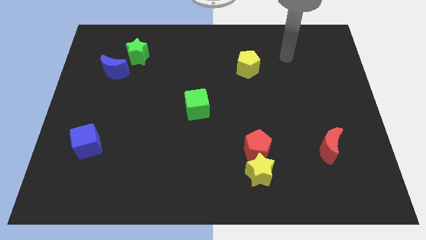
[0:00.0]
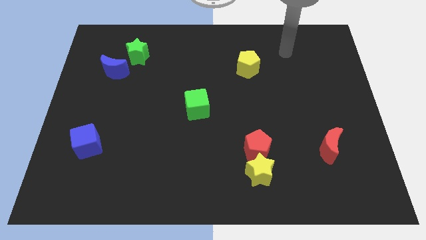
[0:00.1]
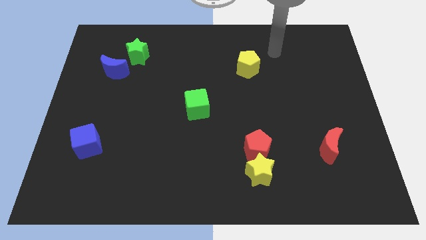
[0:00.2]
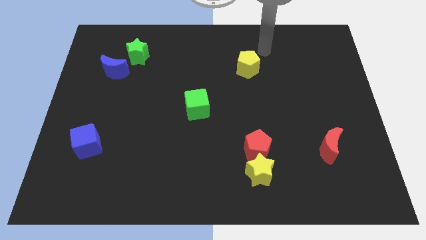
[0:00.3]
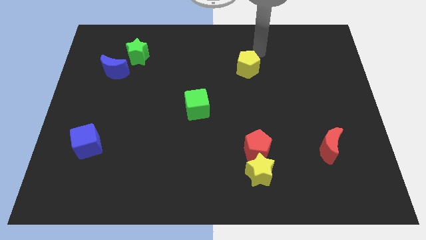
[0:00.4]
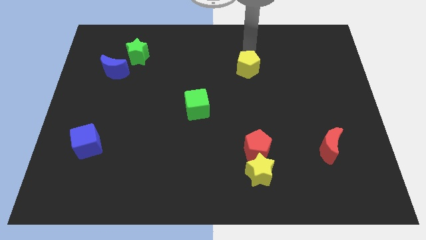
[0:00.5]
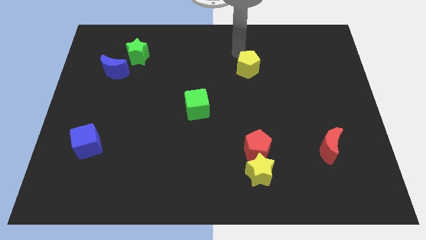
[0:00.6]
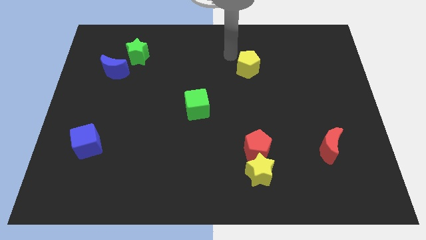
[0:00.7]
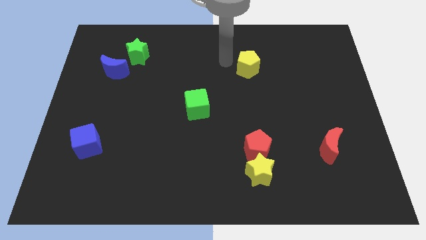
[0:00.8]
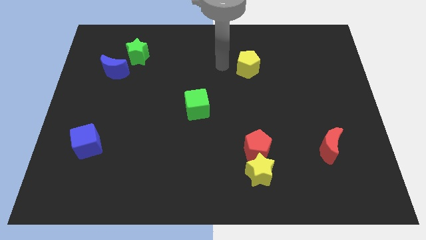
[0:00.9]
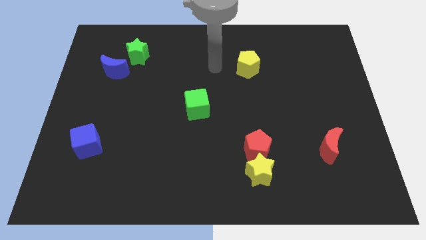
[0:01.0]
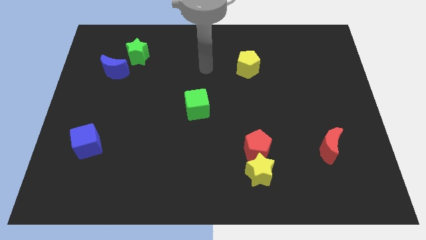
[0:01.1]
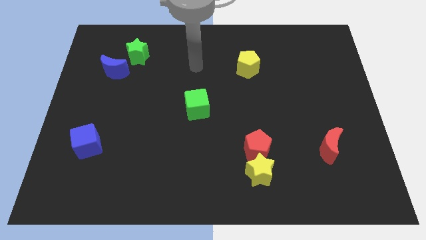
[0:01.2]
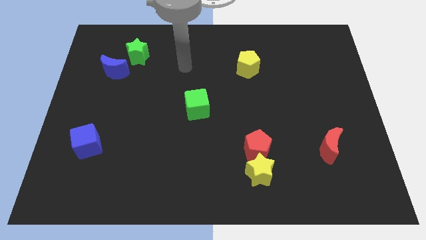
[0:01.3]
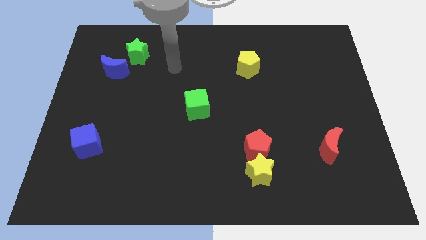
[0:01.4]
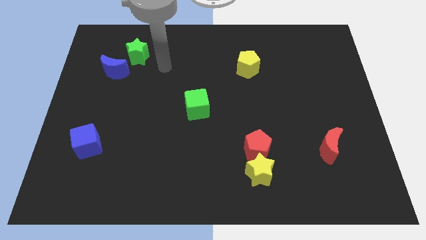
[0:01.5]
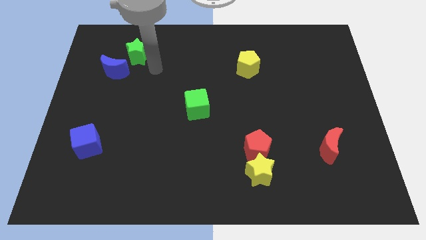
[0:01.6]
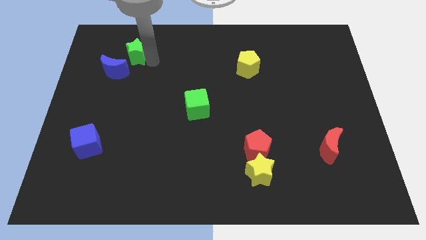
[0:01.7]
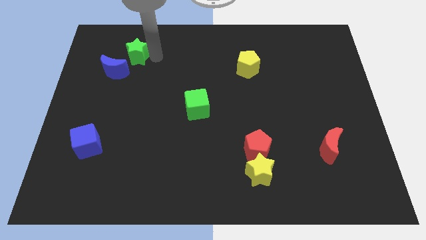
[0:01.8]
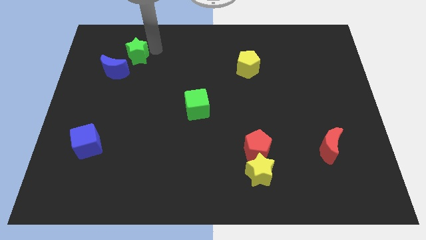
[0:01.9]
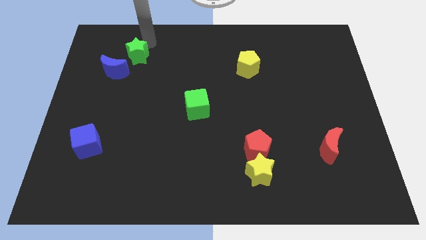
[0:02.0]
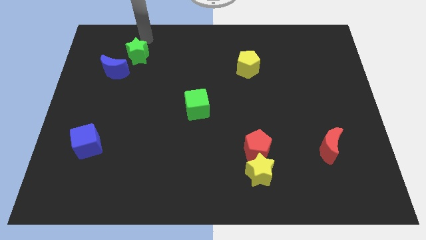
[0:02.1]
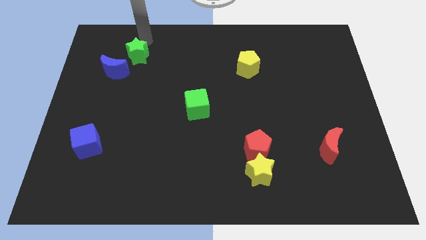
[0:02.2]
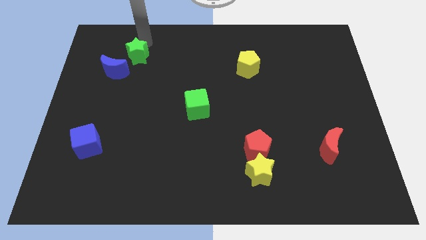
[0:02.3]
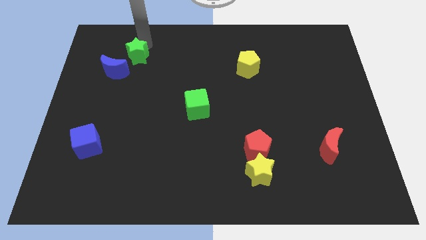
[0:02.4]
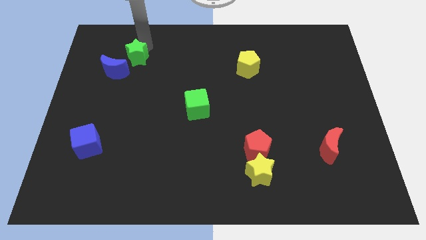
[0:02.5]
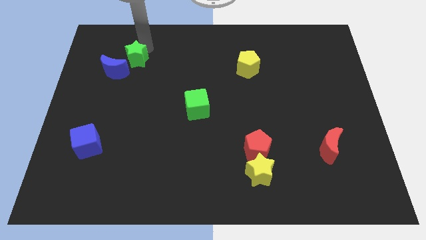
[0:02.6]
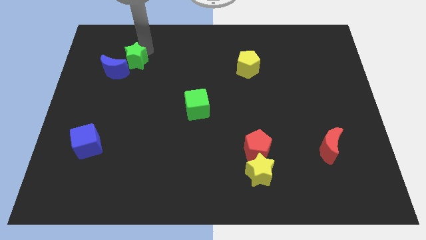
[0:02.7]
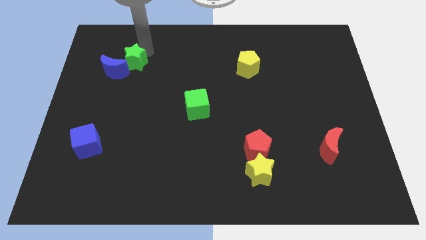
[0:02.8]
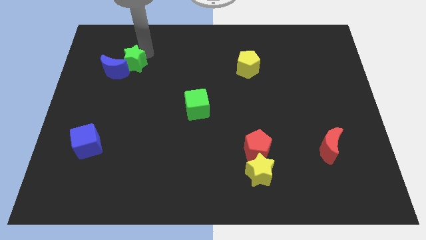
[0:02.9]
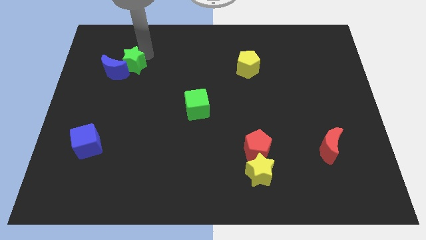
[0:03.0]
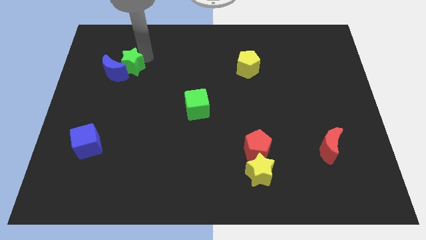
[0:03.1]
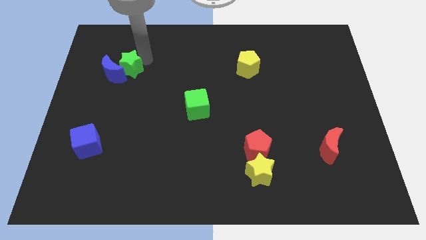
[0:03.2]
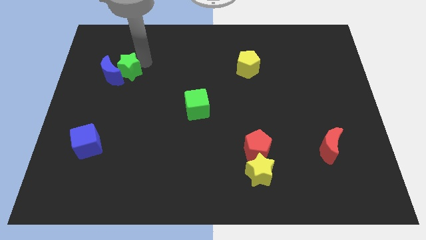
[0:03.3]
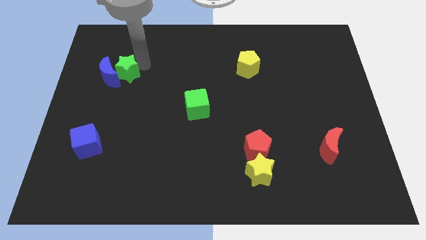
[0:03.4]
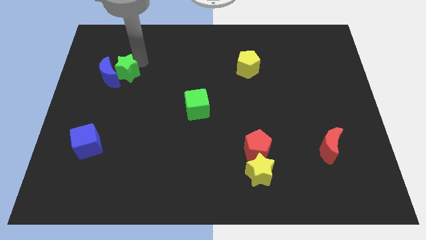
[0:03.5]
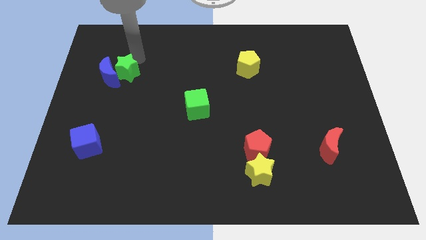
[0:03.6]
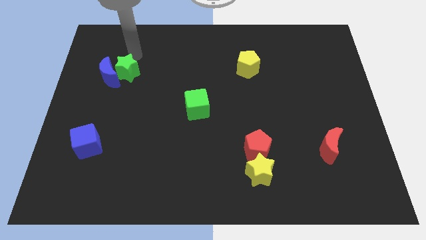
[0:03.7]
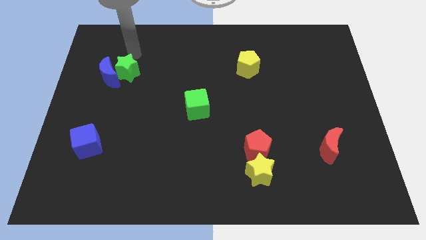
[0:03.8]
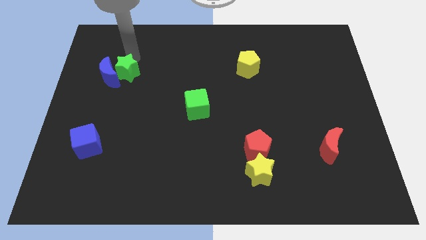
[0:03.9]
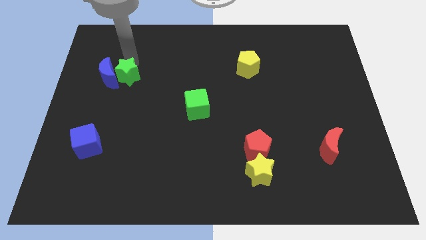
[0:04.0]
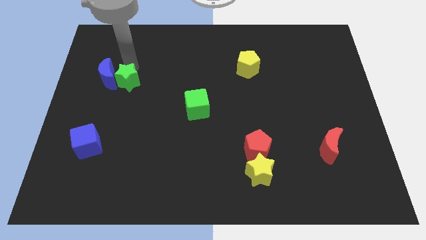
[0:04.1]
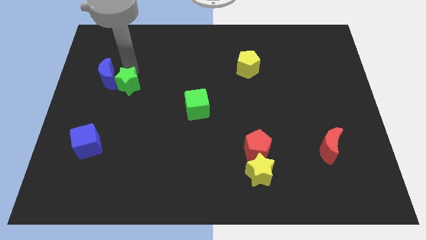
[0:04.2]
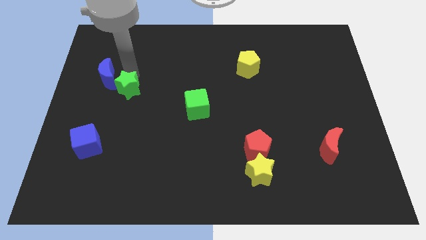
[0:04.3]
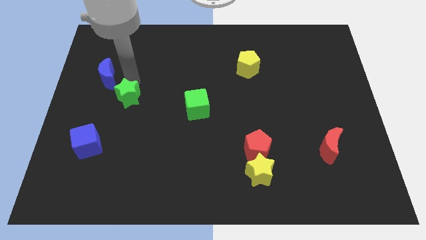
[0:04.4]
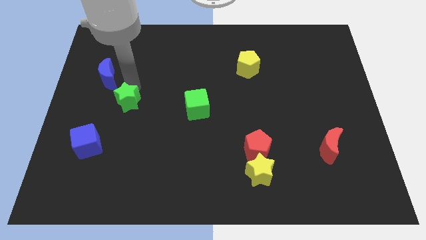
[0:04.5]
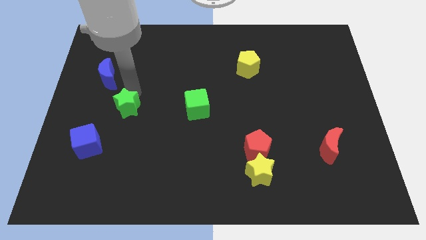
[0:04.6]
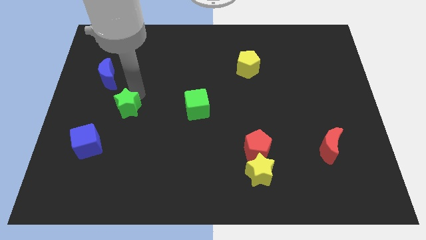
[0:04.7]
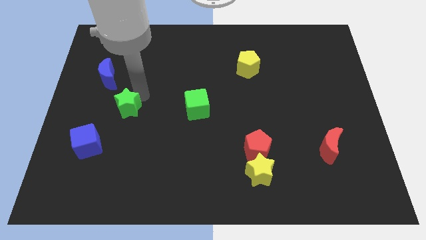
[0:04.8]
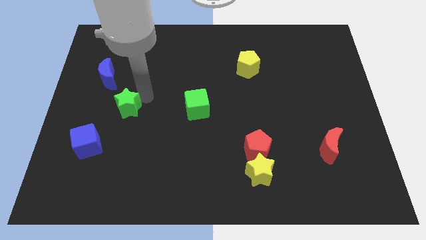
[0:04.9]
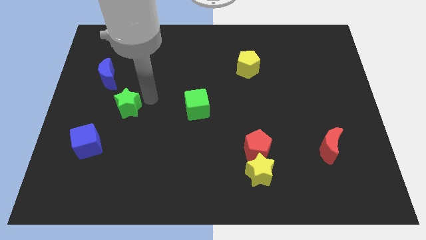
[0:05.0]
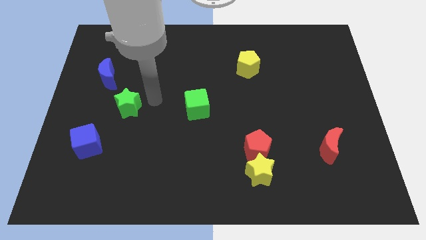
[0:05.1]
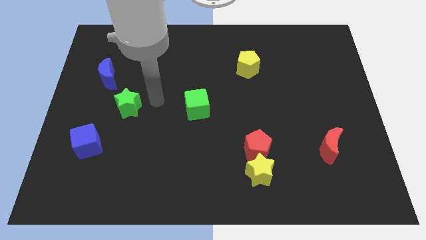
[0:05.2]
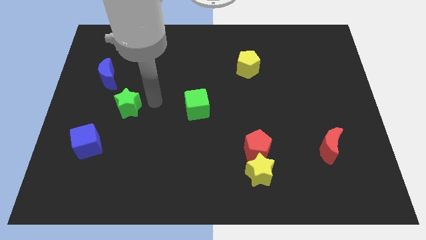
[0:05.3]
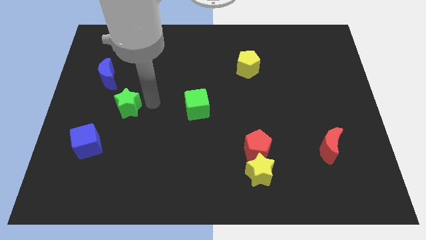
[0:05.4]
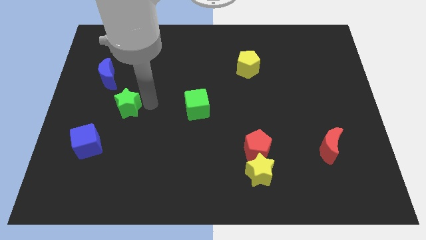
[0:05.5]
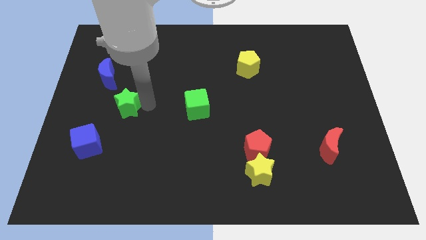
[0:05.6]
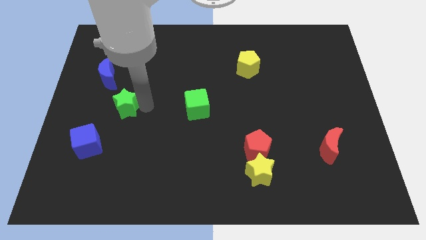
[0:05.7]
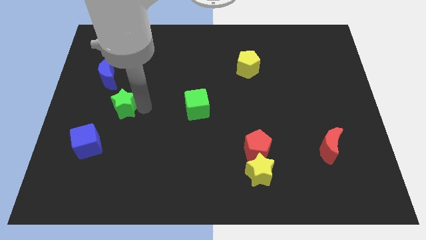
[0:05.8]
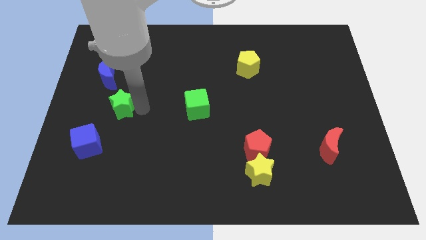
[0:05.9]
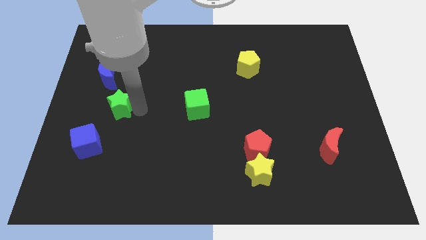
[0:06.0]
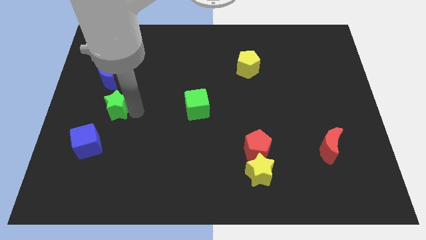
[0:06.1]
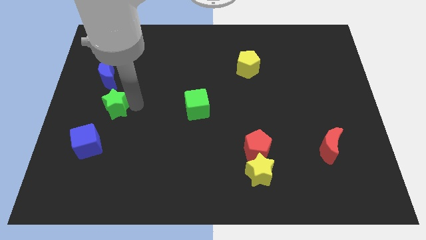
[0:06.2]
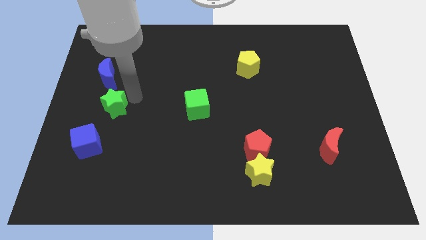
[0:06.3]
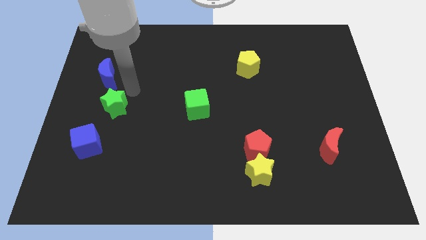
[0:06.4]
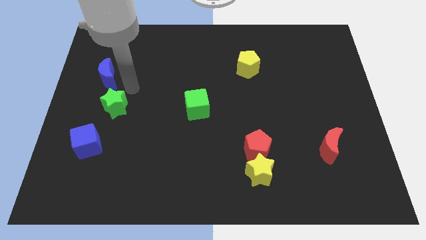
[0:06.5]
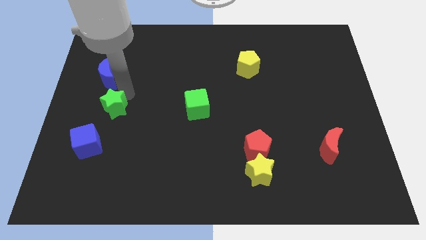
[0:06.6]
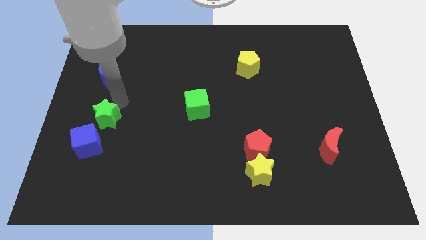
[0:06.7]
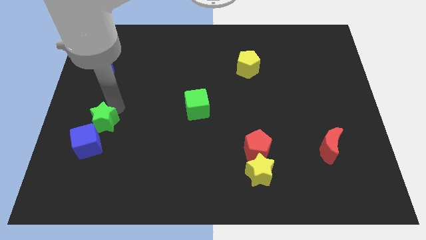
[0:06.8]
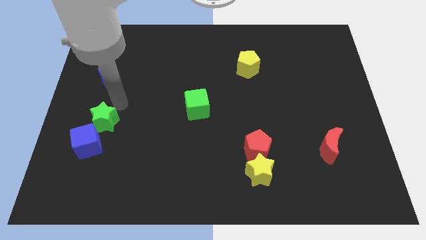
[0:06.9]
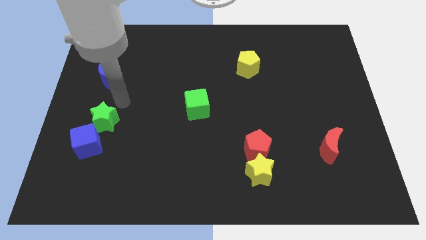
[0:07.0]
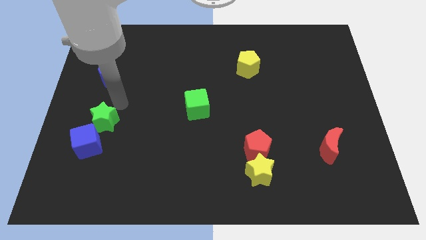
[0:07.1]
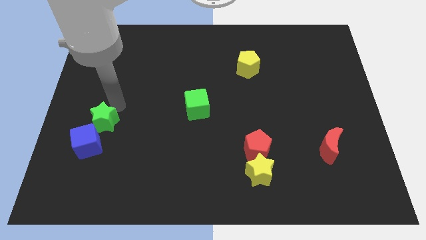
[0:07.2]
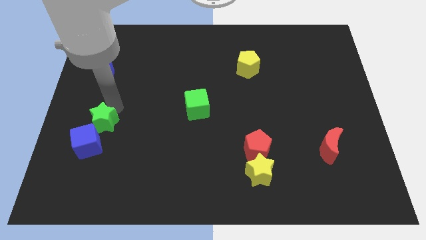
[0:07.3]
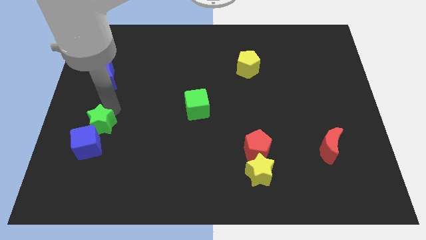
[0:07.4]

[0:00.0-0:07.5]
slide the green star next to the blue cube

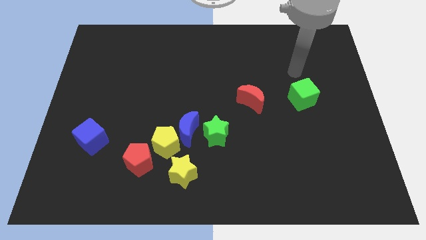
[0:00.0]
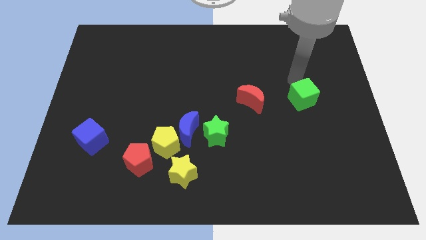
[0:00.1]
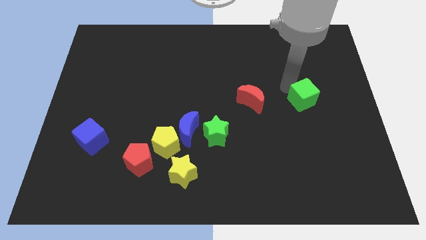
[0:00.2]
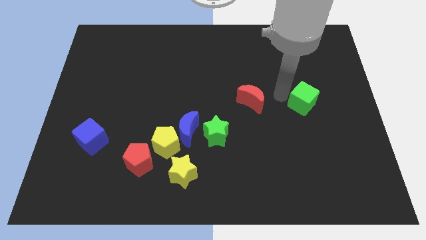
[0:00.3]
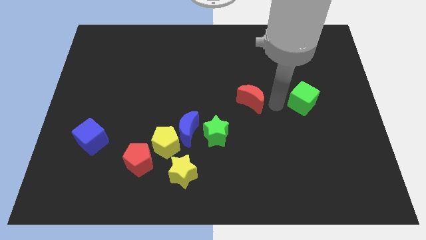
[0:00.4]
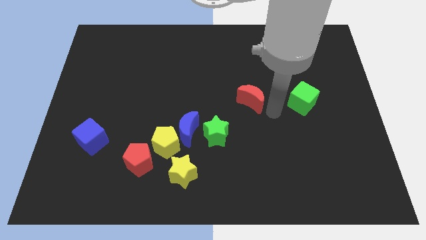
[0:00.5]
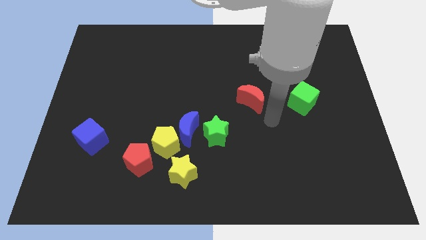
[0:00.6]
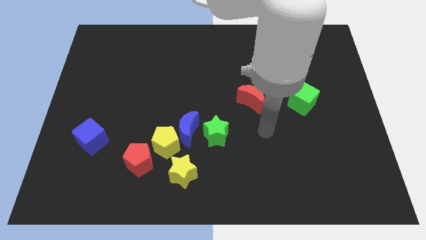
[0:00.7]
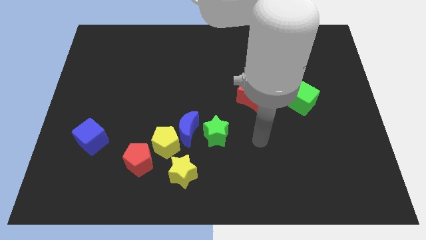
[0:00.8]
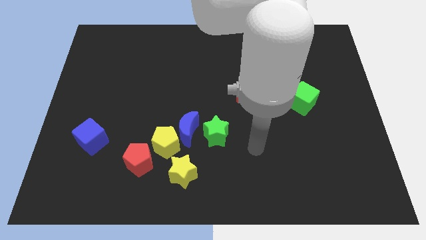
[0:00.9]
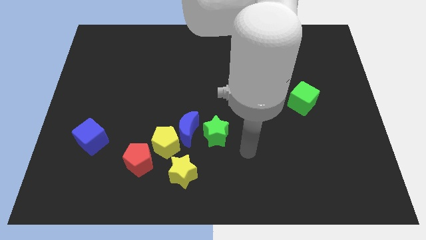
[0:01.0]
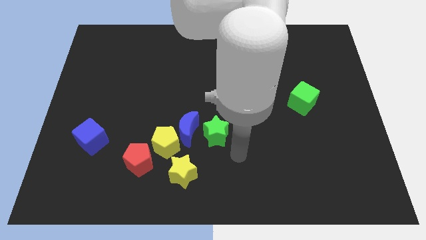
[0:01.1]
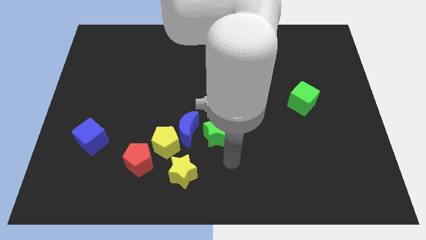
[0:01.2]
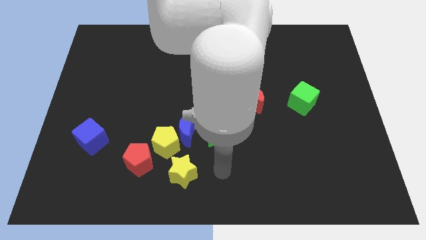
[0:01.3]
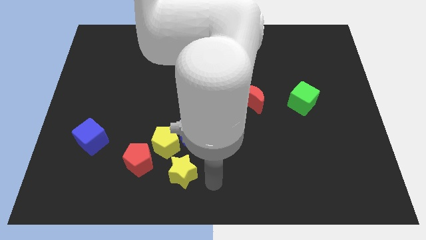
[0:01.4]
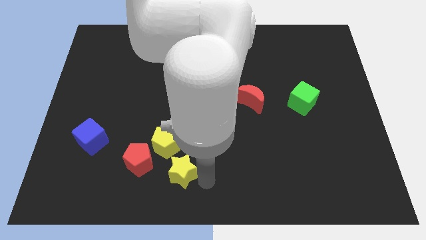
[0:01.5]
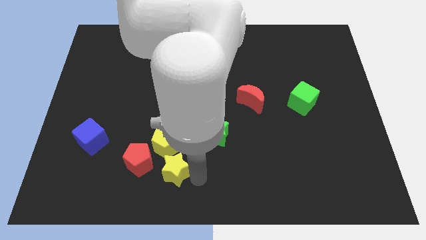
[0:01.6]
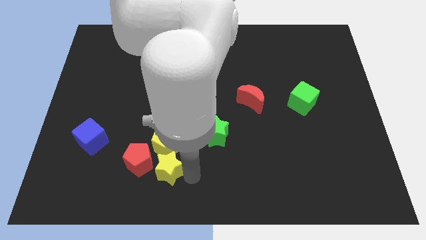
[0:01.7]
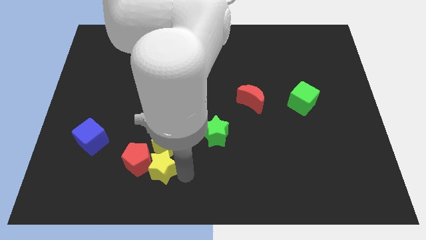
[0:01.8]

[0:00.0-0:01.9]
put the yellow star close to the red pentagon
